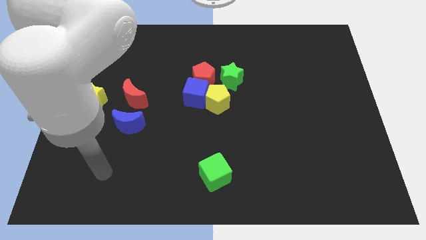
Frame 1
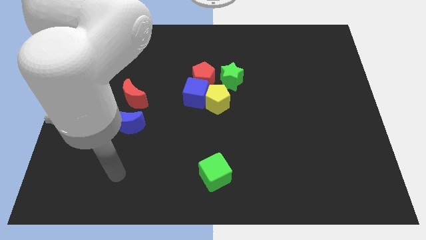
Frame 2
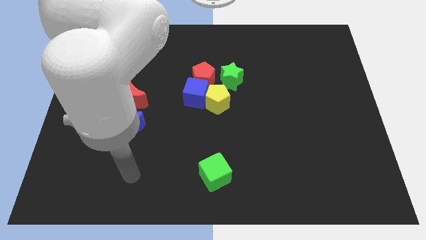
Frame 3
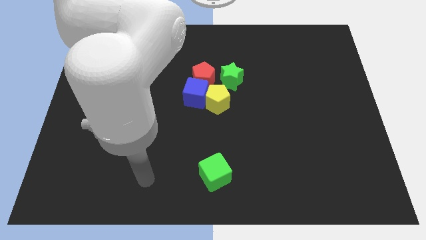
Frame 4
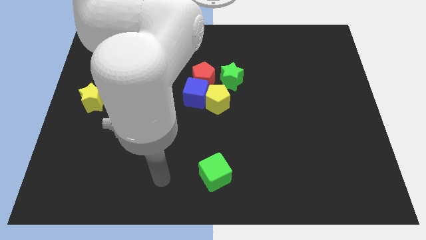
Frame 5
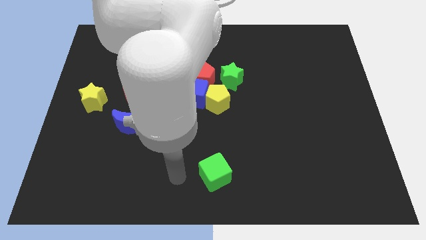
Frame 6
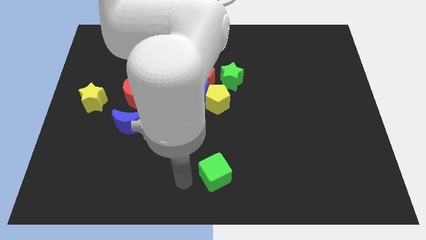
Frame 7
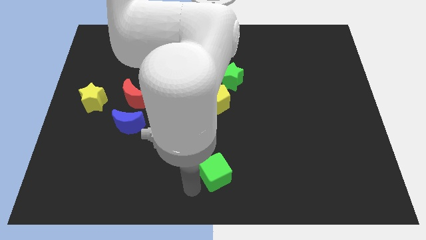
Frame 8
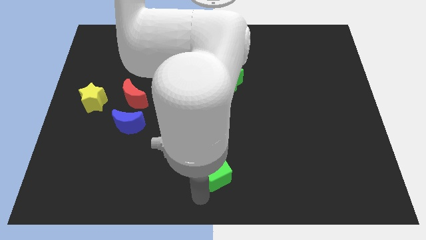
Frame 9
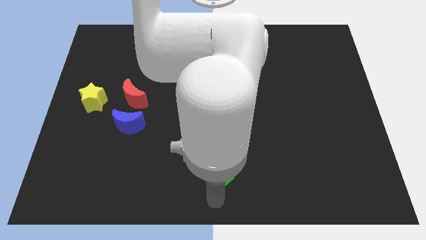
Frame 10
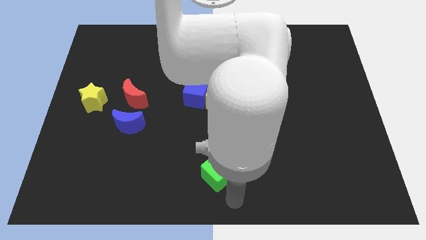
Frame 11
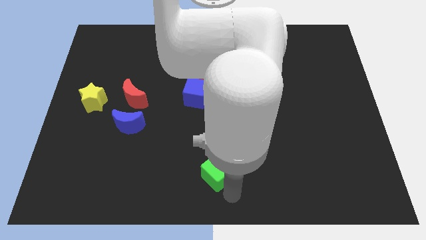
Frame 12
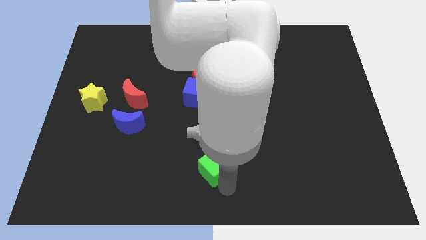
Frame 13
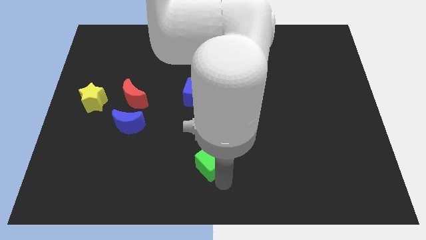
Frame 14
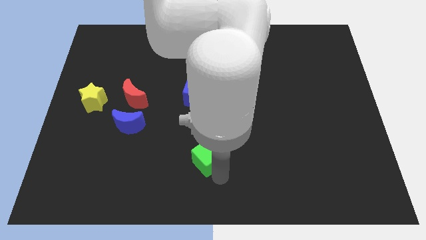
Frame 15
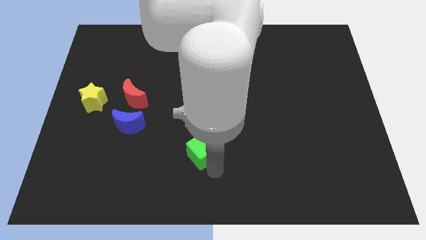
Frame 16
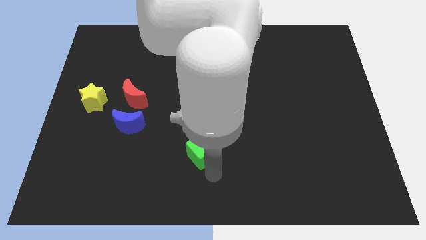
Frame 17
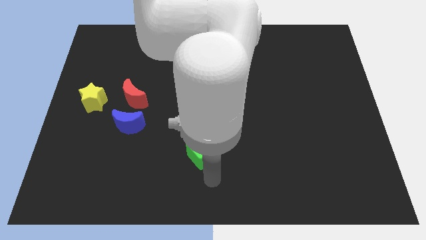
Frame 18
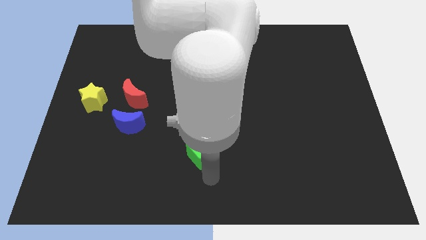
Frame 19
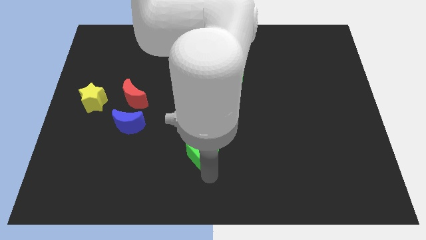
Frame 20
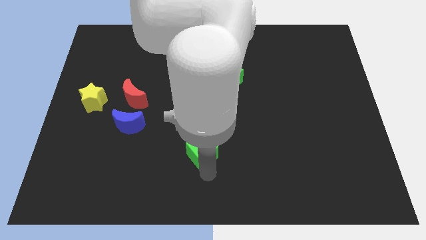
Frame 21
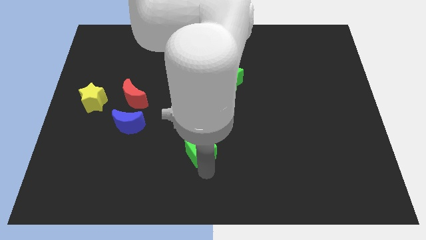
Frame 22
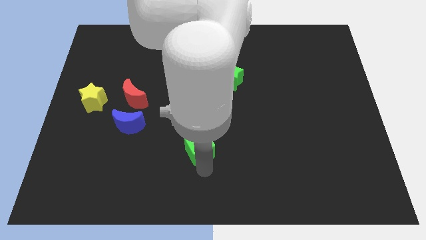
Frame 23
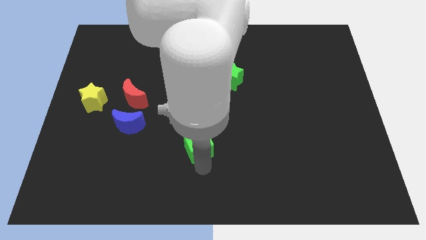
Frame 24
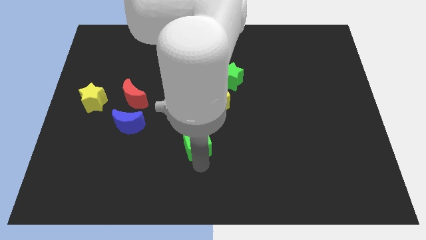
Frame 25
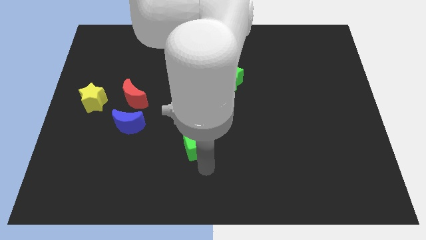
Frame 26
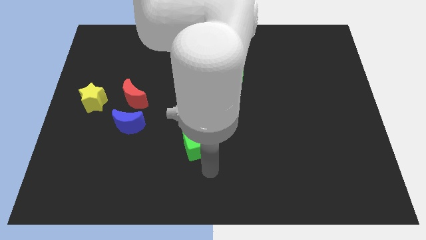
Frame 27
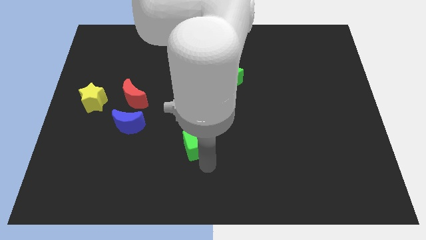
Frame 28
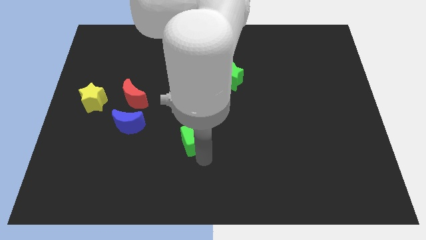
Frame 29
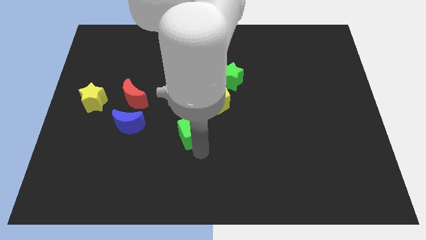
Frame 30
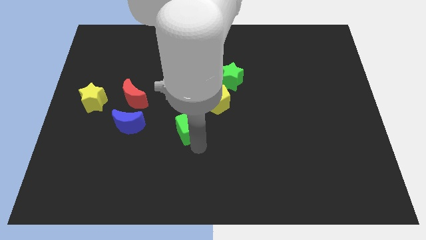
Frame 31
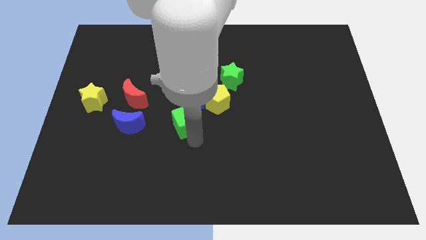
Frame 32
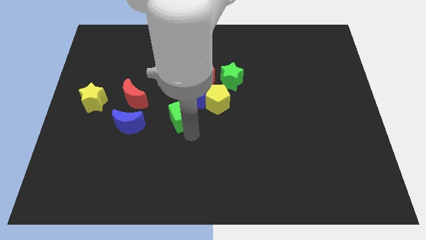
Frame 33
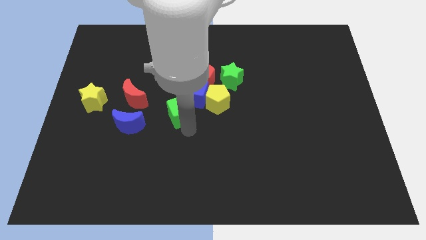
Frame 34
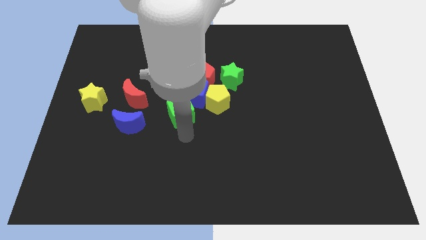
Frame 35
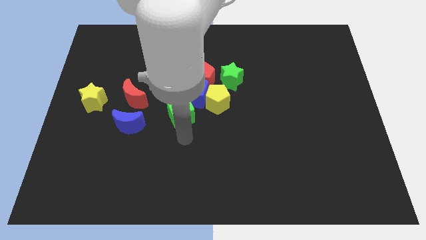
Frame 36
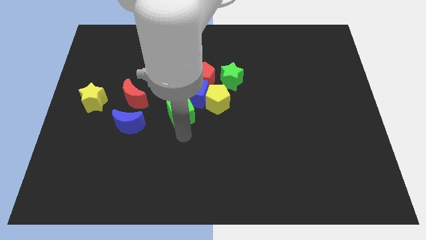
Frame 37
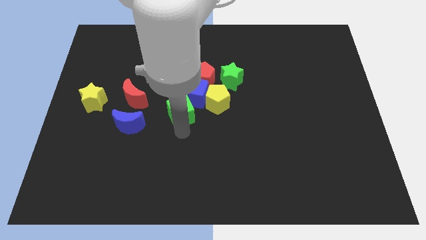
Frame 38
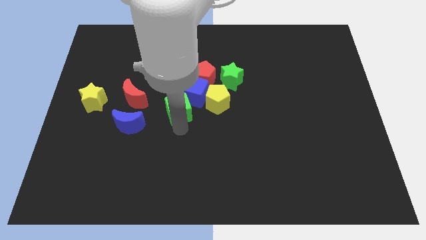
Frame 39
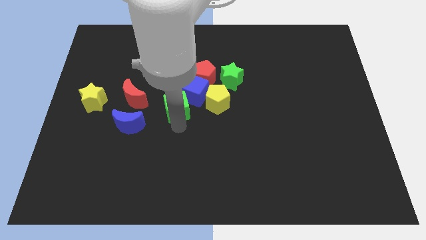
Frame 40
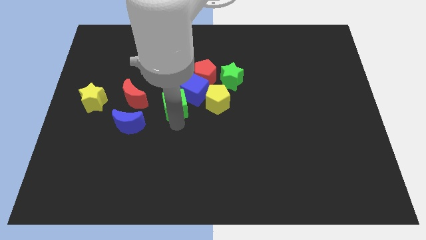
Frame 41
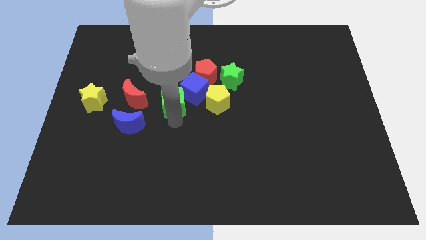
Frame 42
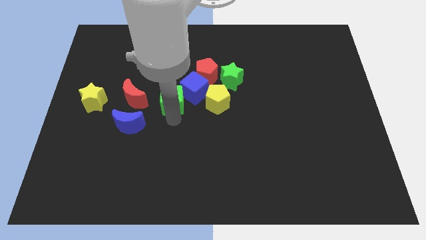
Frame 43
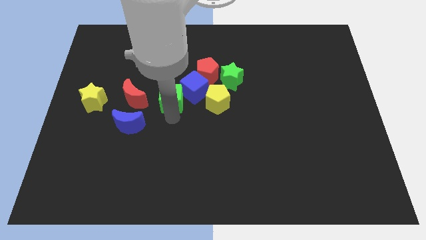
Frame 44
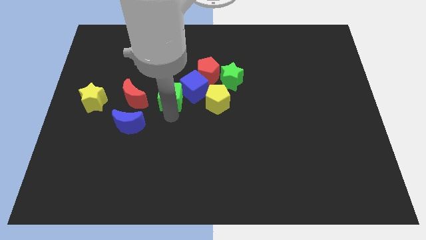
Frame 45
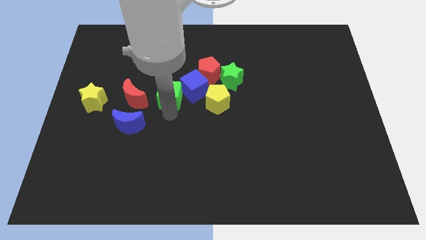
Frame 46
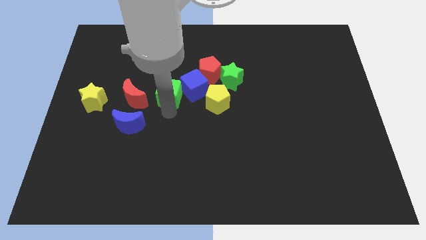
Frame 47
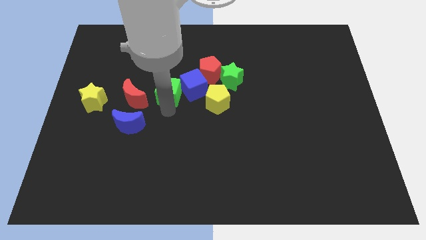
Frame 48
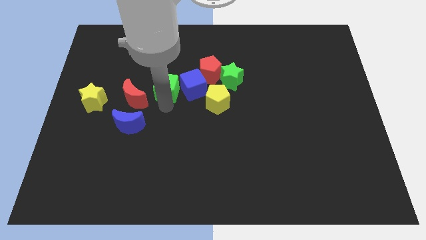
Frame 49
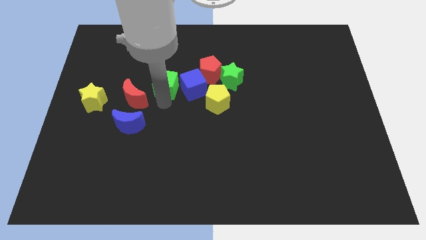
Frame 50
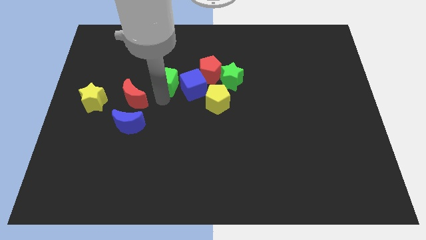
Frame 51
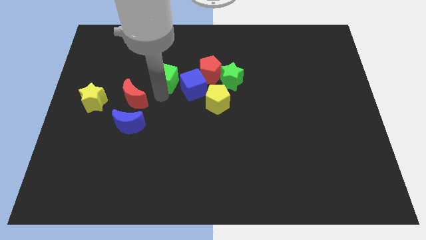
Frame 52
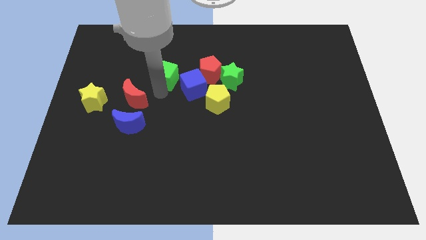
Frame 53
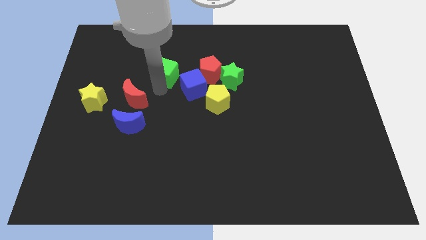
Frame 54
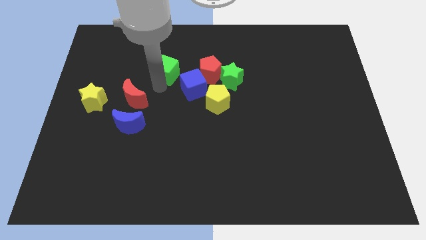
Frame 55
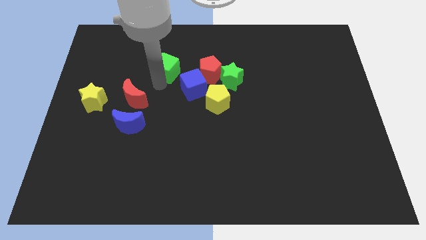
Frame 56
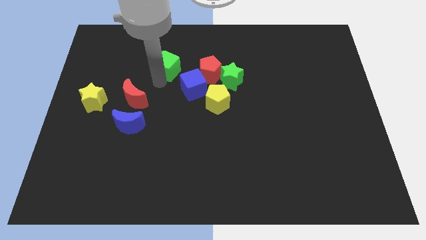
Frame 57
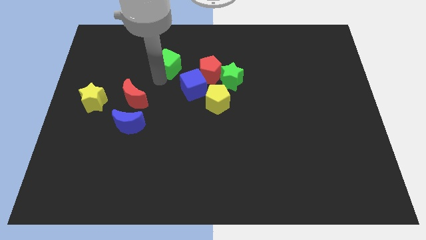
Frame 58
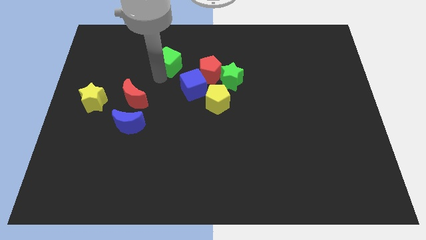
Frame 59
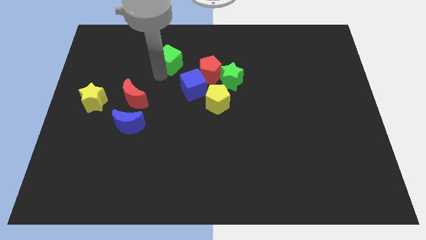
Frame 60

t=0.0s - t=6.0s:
move the green cube diagonally up and to the left of the red pentagon

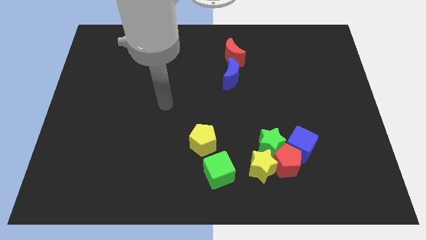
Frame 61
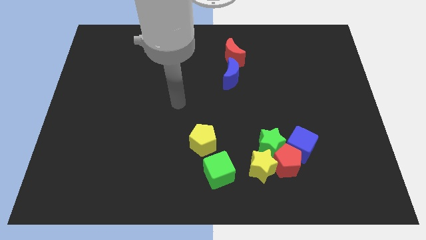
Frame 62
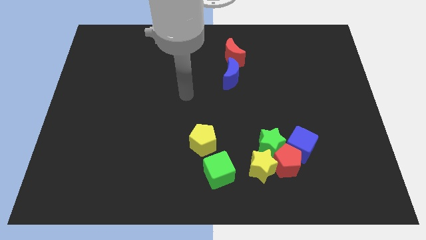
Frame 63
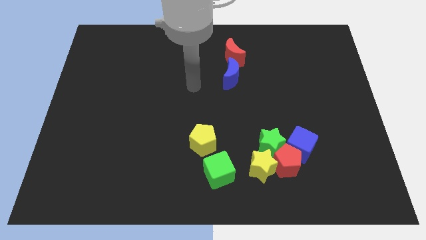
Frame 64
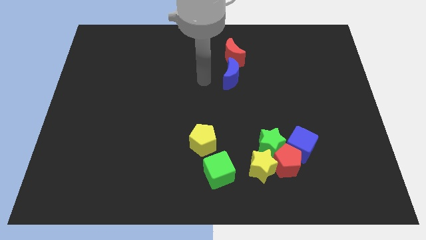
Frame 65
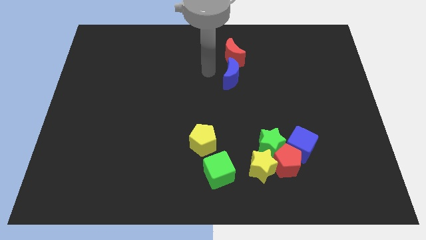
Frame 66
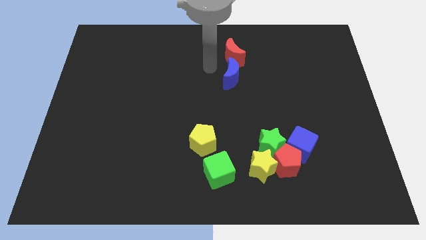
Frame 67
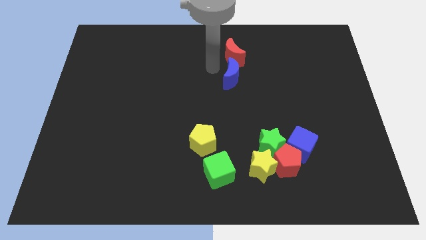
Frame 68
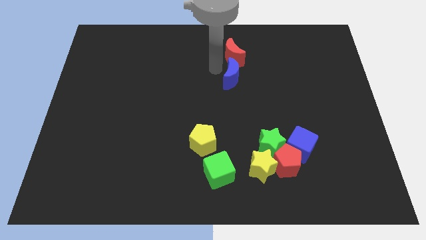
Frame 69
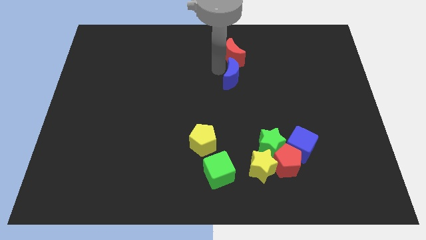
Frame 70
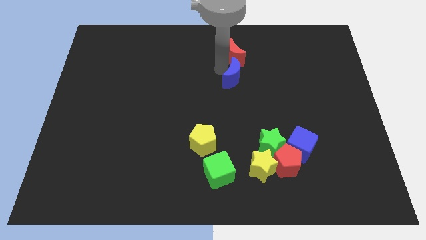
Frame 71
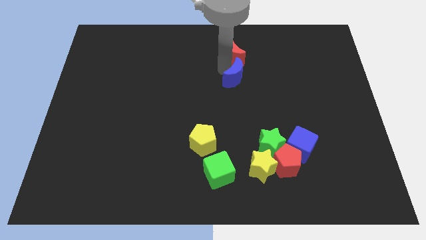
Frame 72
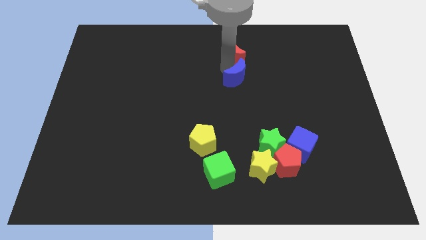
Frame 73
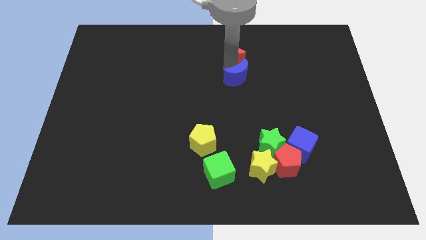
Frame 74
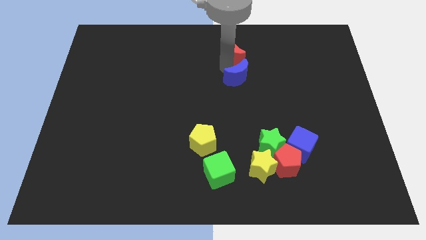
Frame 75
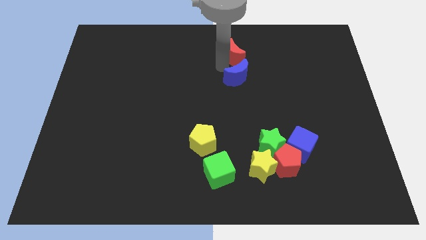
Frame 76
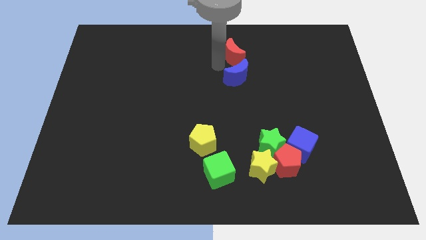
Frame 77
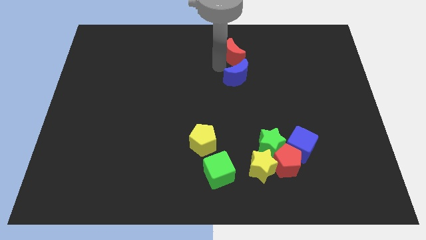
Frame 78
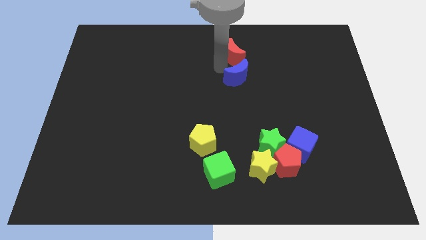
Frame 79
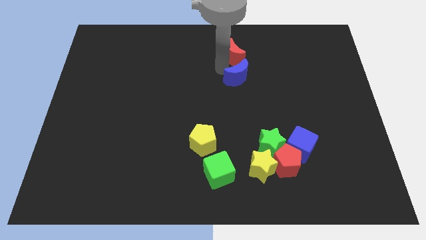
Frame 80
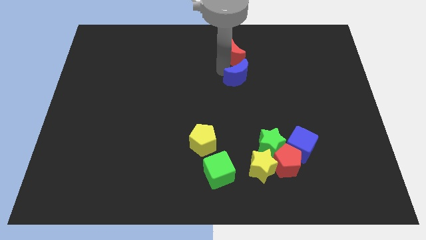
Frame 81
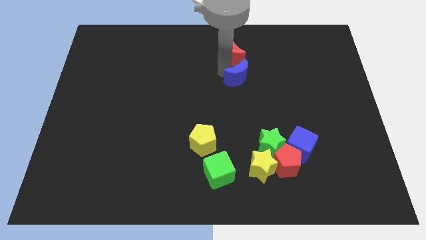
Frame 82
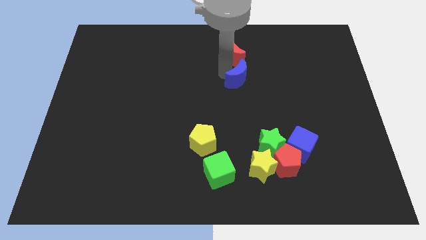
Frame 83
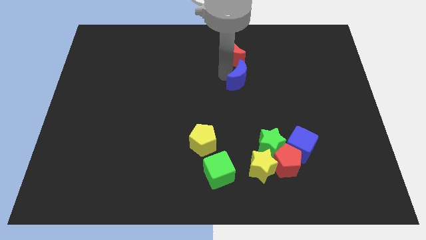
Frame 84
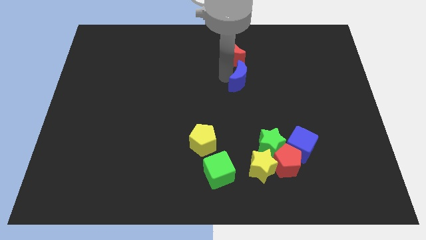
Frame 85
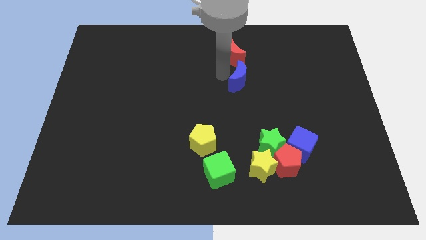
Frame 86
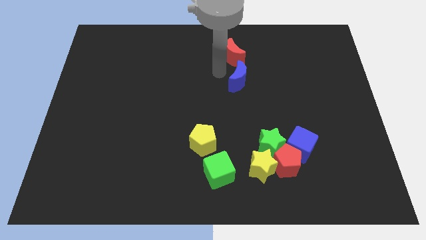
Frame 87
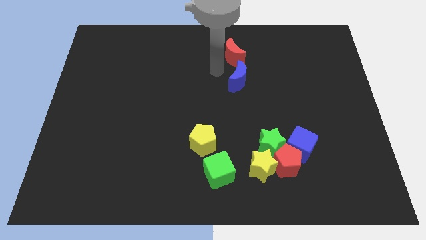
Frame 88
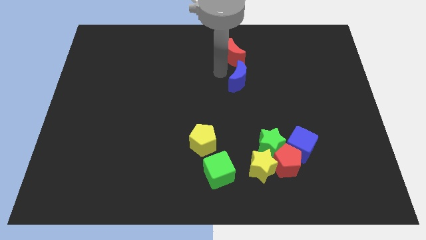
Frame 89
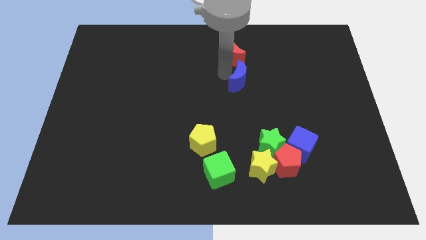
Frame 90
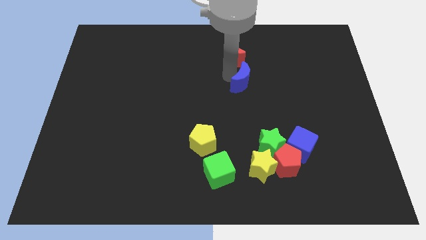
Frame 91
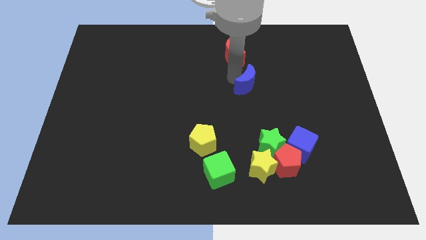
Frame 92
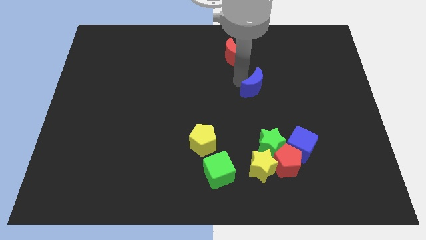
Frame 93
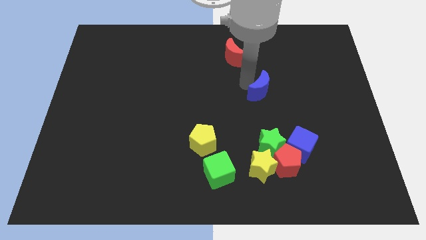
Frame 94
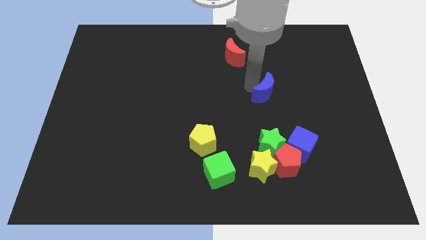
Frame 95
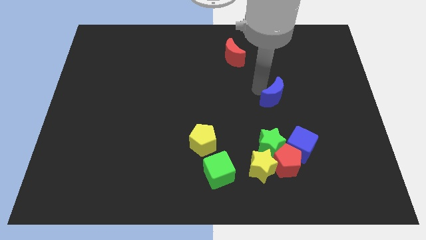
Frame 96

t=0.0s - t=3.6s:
slide the blue moon to the top side of the blue cube
